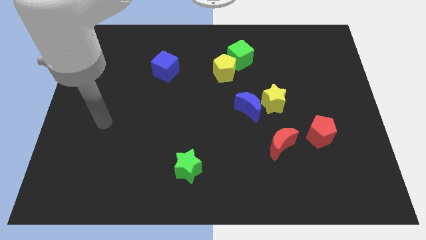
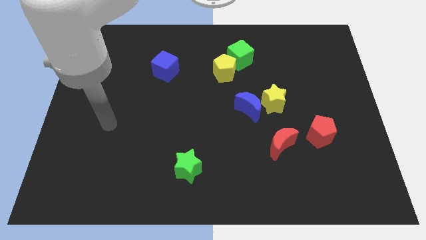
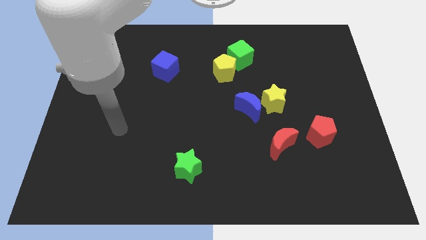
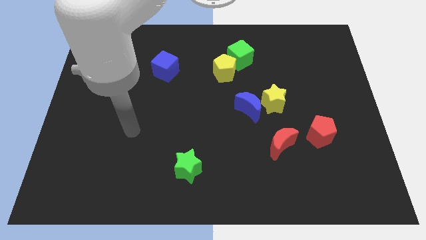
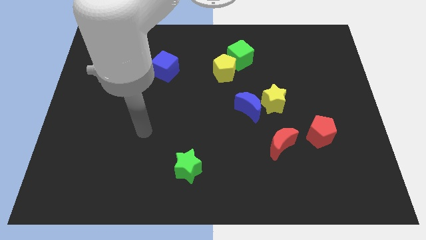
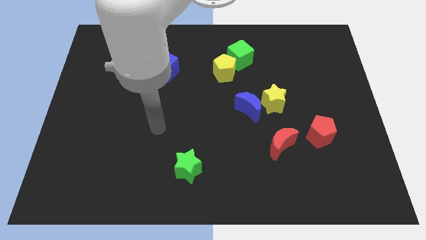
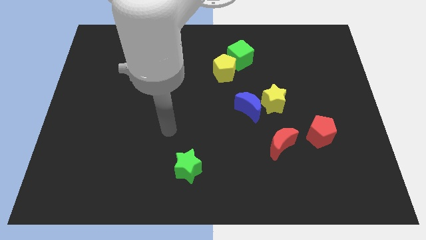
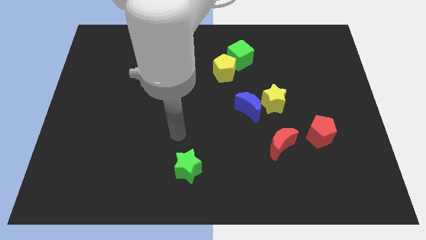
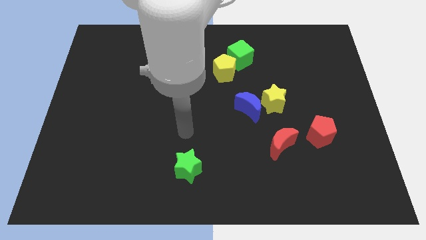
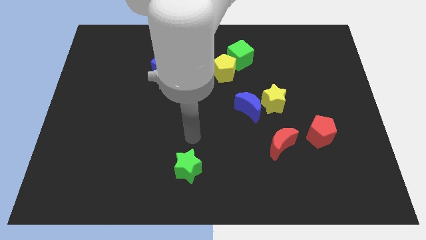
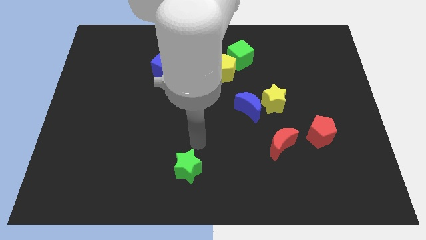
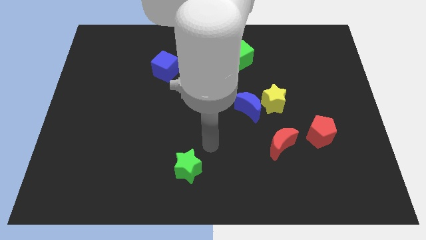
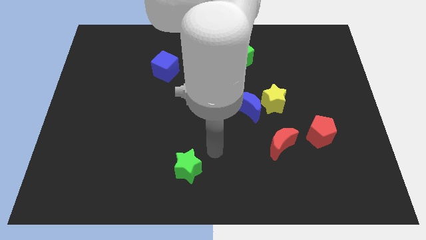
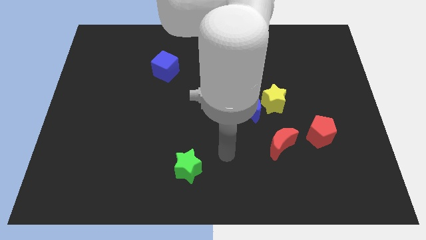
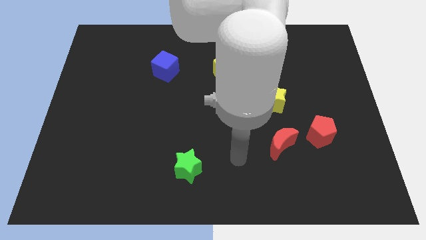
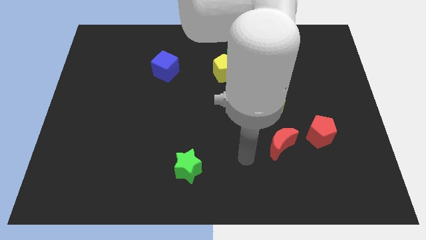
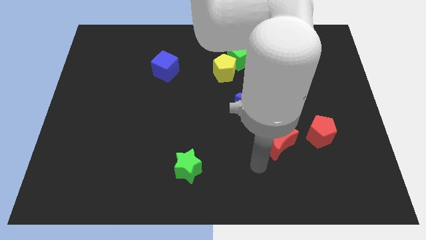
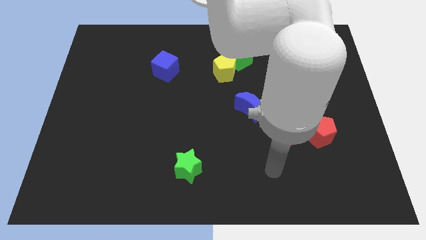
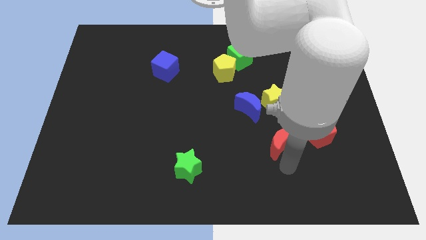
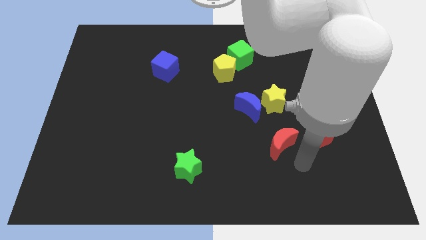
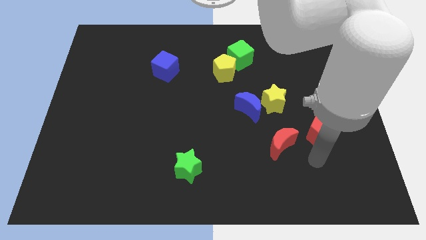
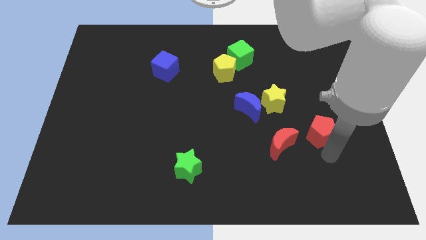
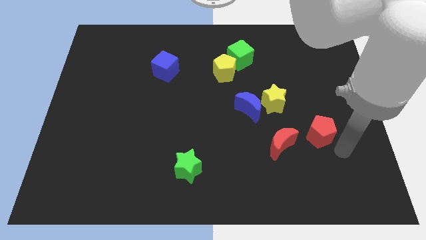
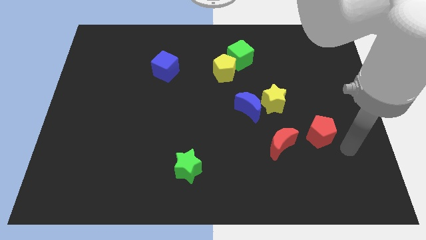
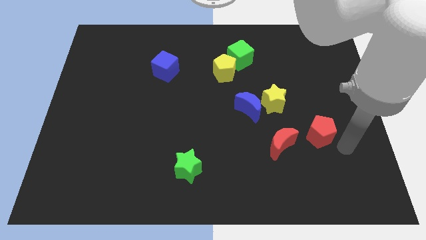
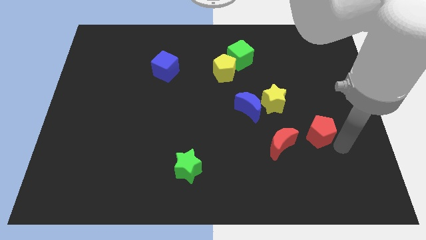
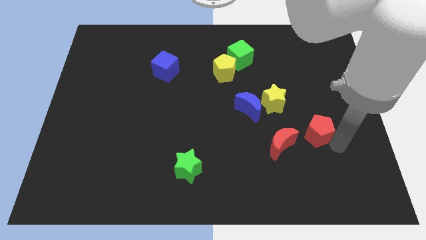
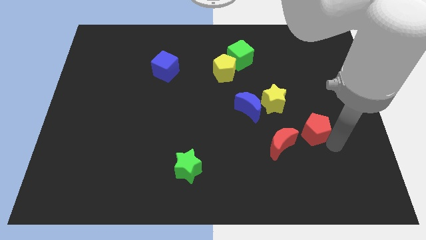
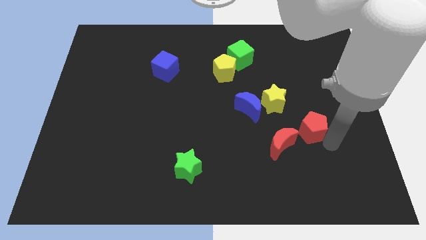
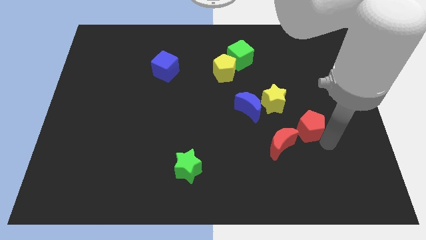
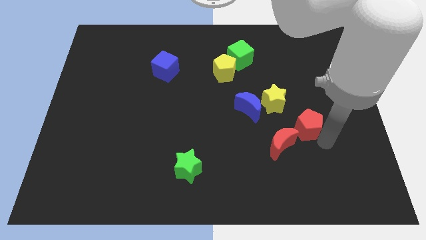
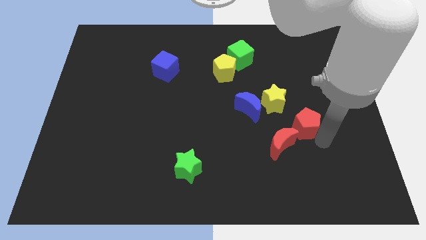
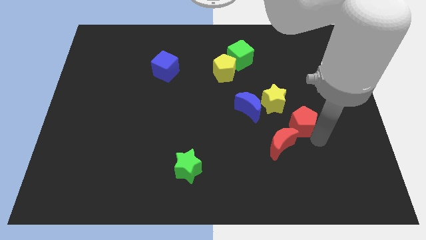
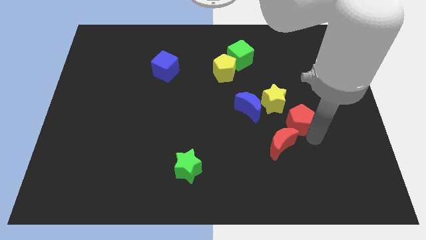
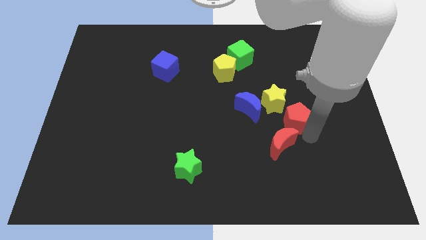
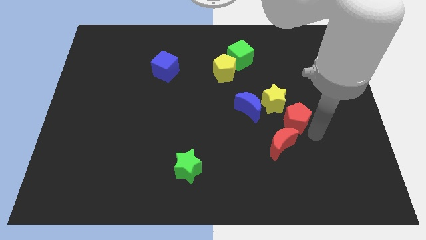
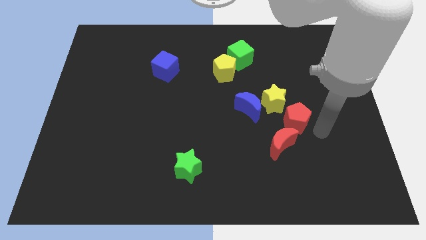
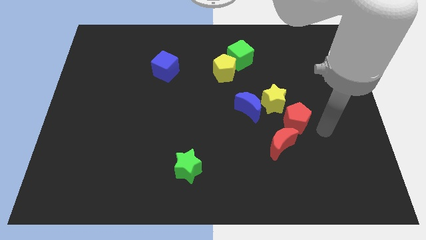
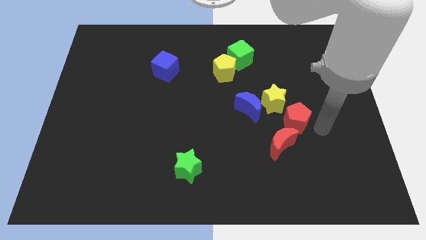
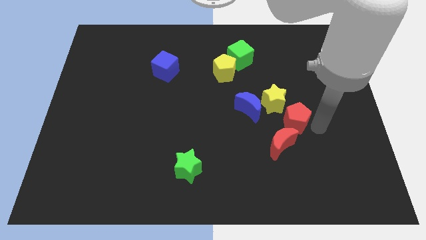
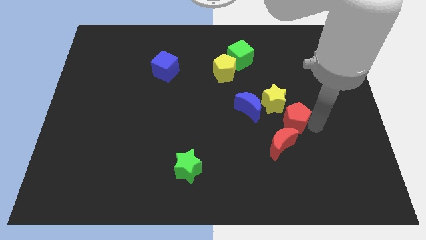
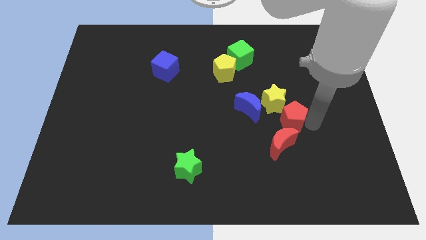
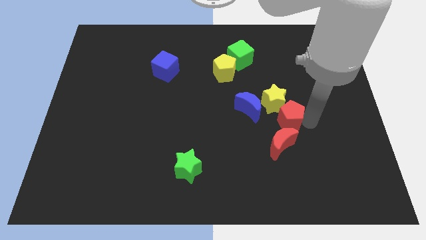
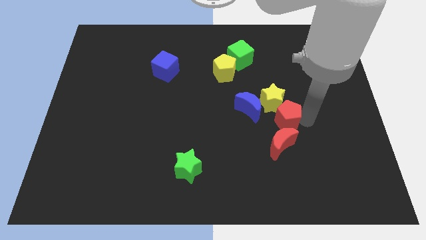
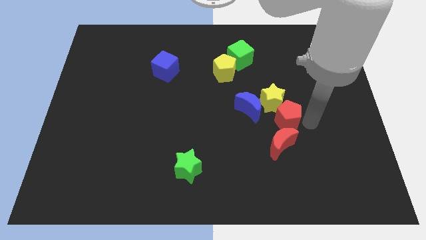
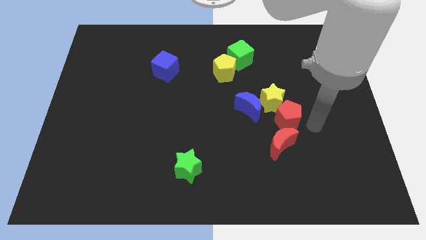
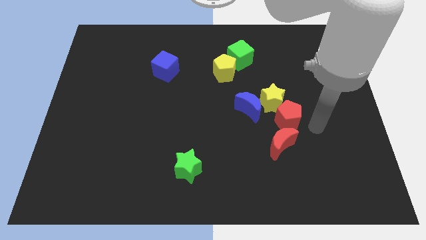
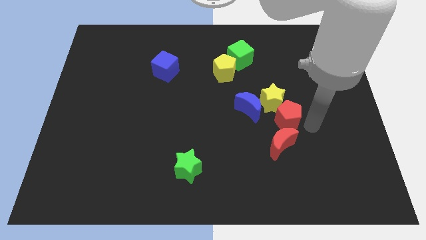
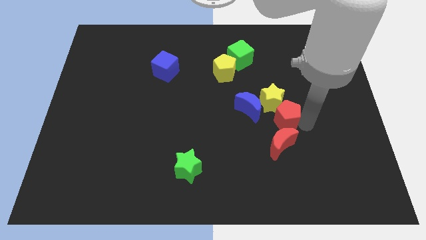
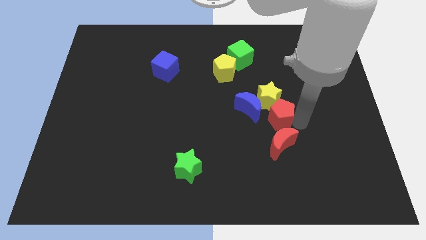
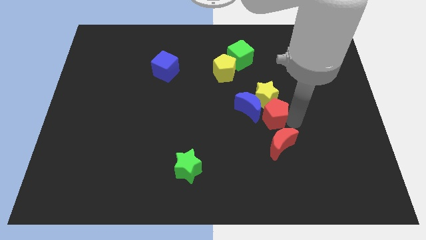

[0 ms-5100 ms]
move the red pentagon to the blue moon

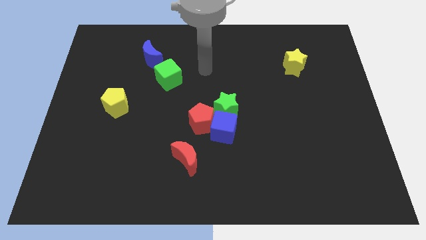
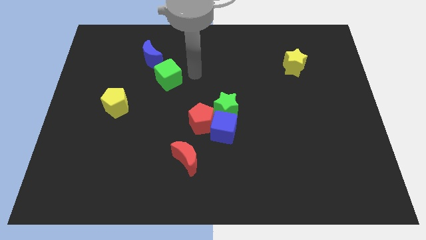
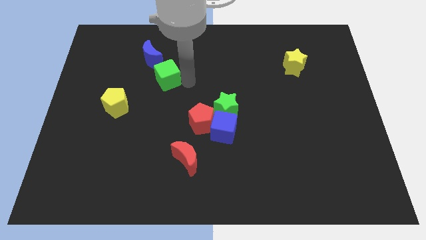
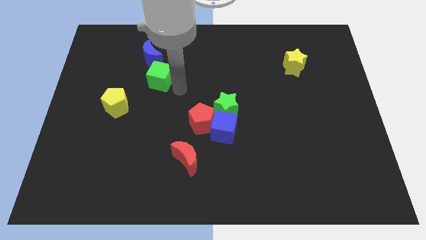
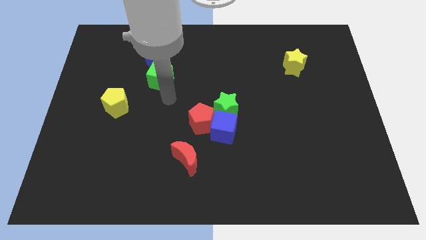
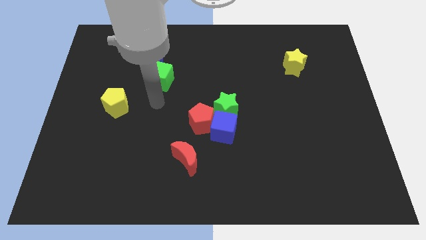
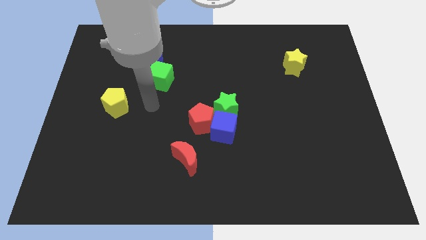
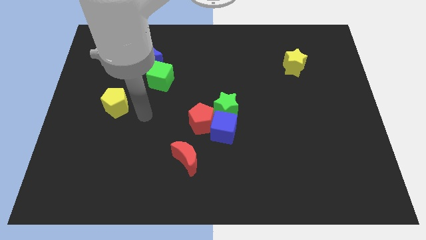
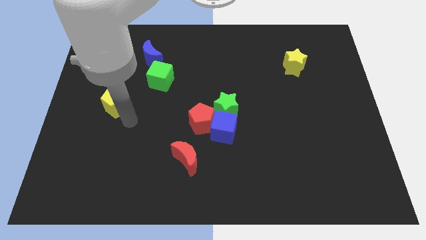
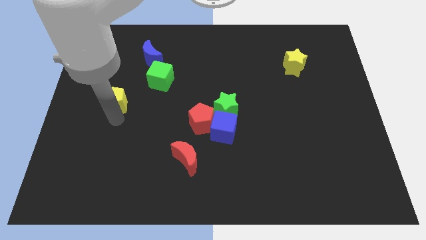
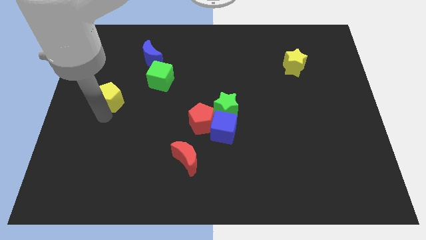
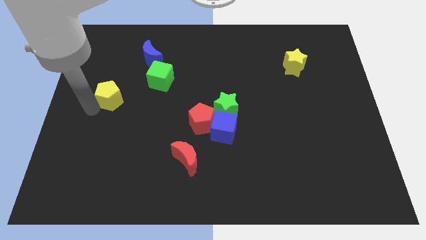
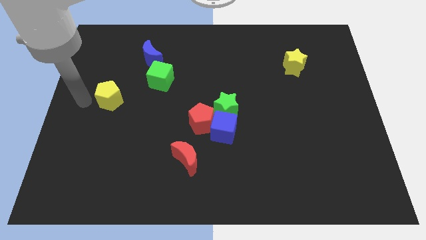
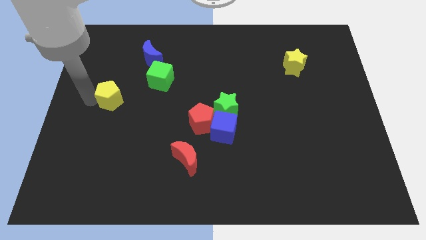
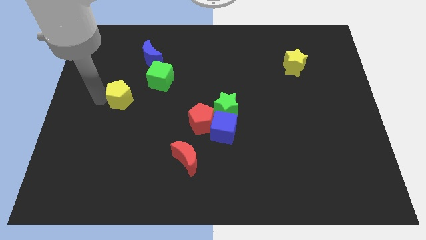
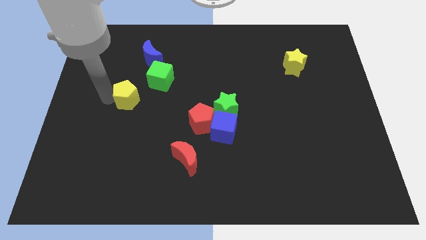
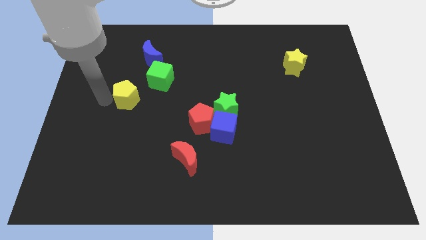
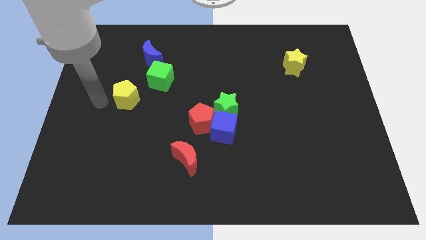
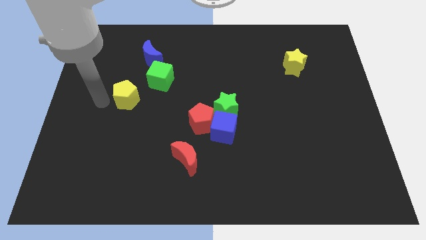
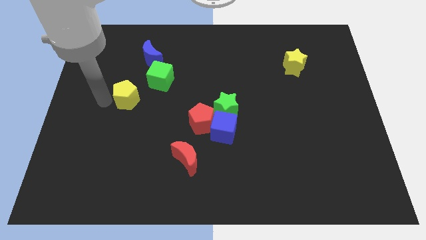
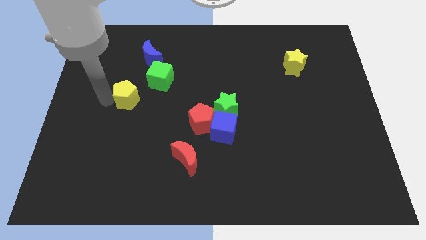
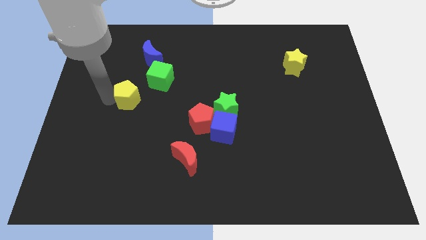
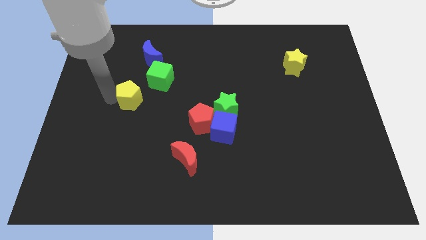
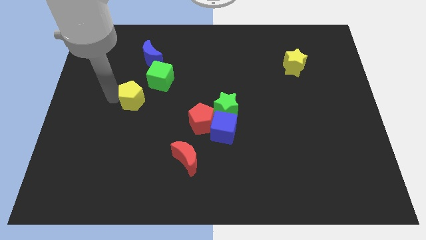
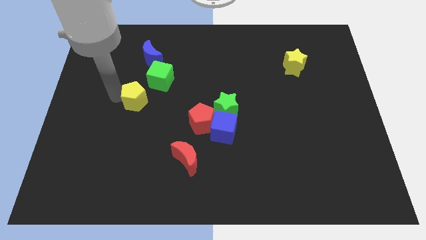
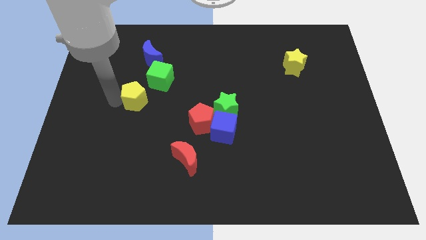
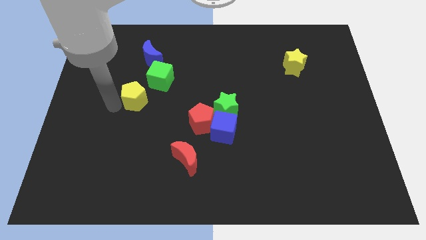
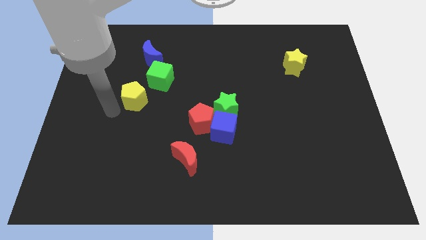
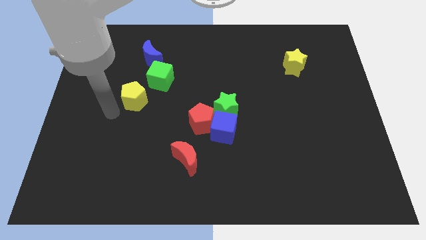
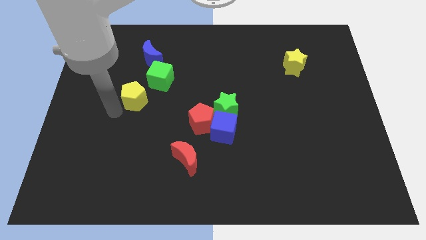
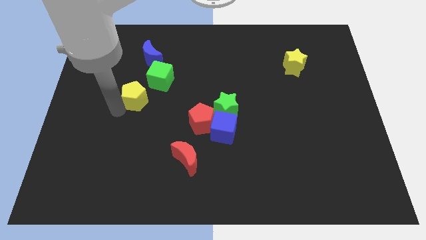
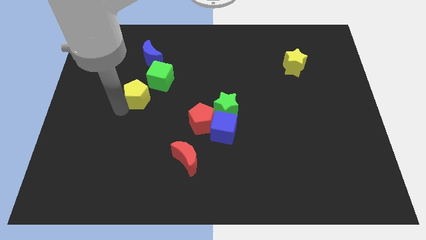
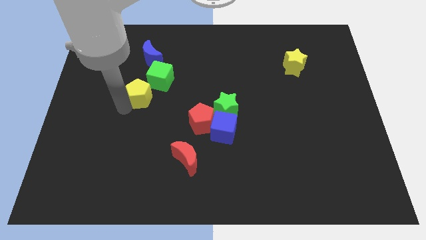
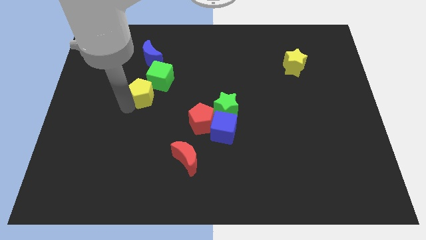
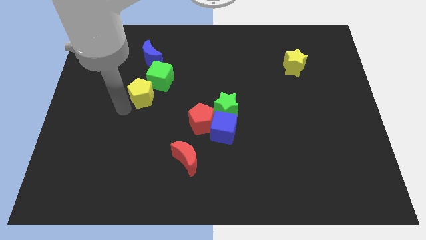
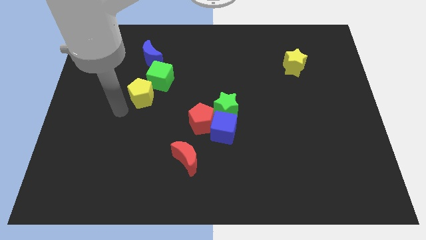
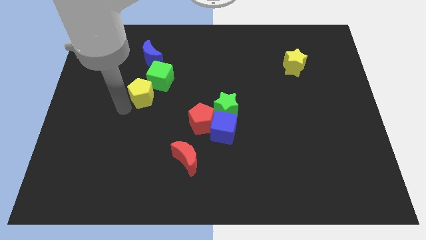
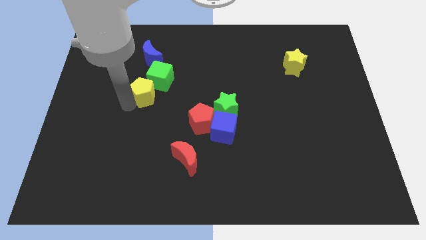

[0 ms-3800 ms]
slide the yellow pentagon to the green cube
